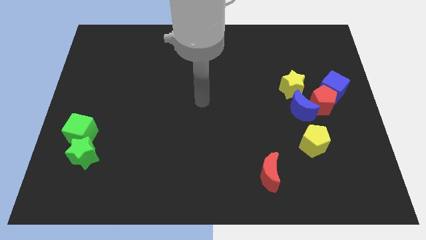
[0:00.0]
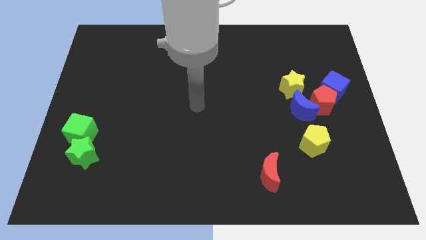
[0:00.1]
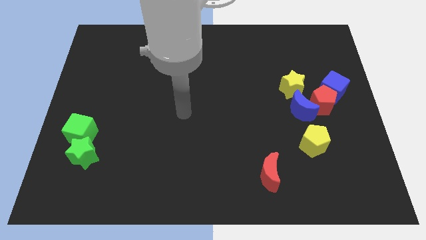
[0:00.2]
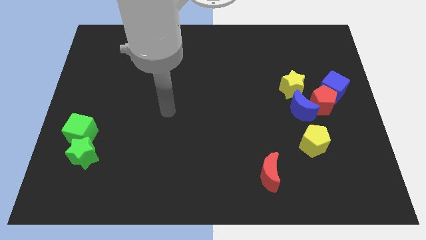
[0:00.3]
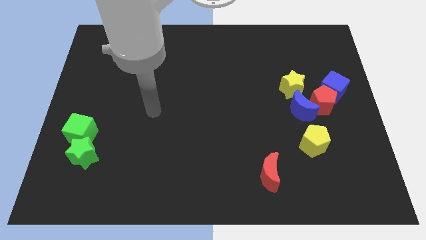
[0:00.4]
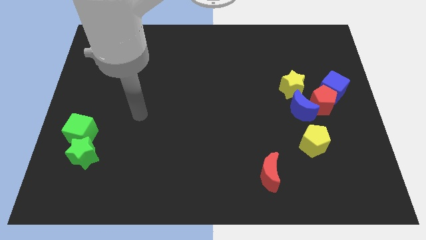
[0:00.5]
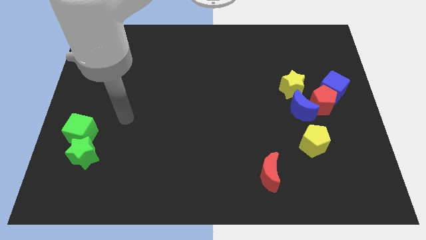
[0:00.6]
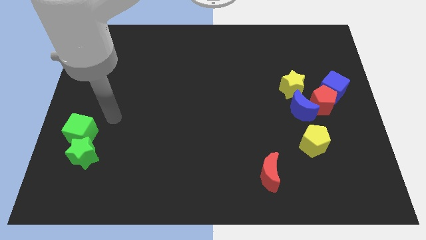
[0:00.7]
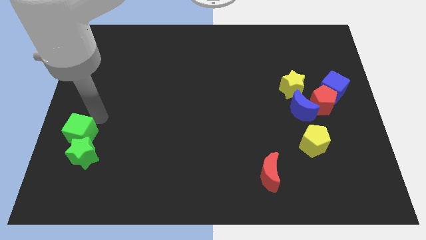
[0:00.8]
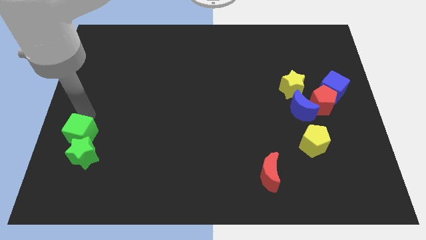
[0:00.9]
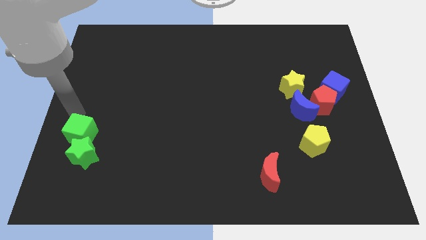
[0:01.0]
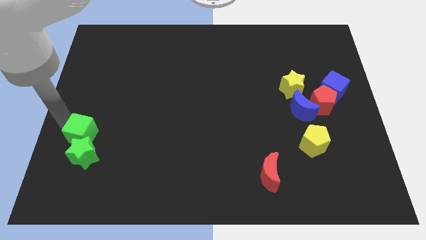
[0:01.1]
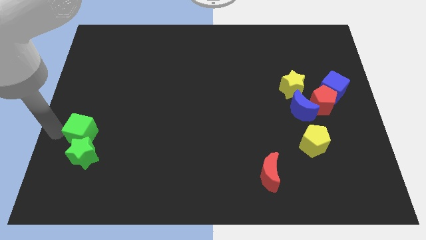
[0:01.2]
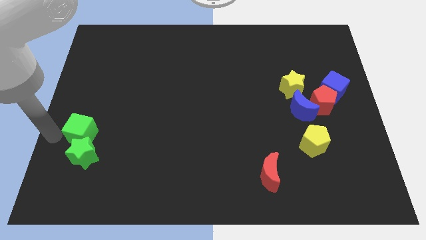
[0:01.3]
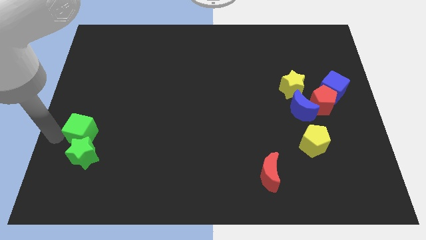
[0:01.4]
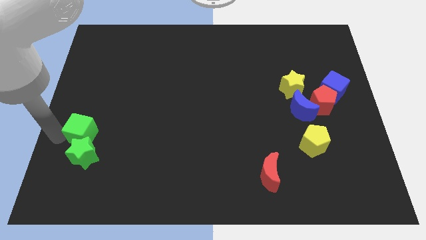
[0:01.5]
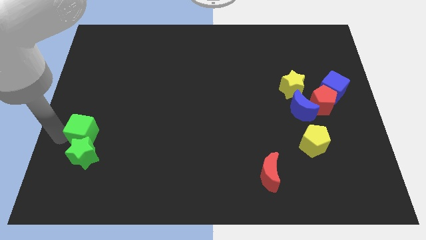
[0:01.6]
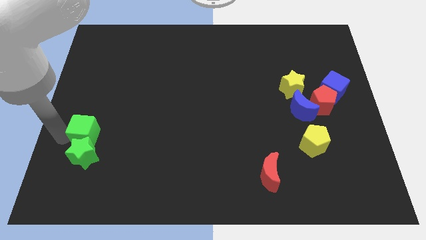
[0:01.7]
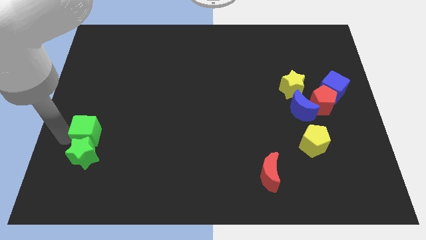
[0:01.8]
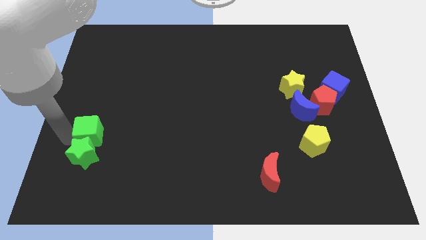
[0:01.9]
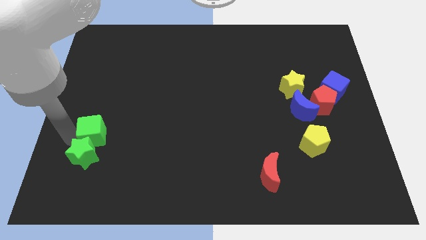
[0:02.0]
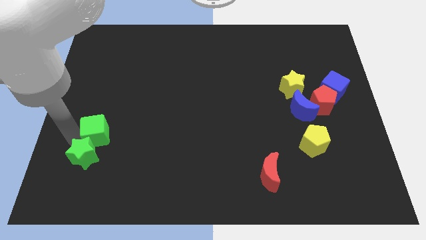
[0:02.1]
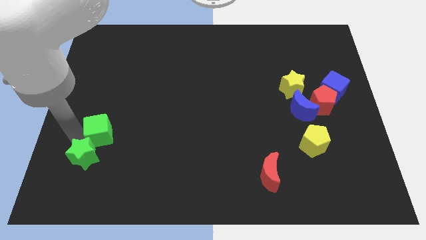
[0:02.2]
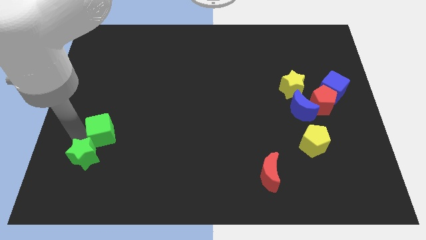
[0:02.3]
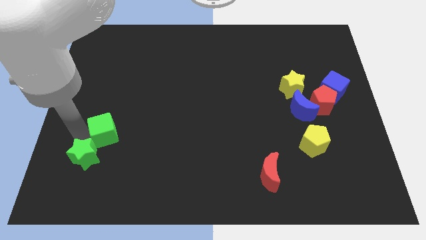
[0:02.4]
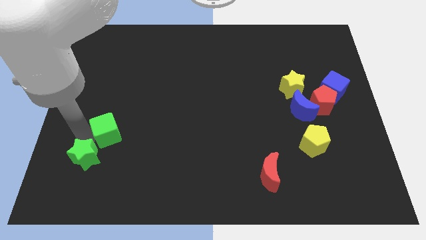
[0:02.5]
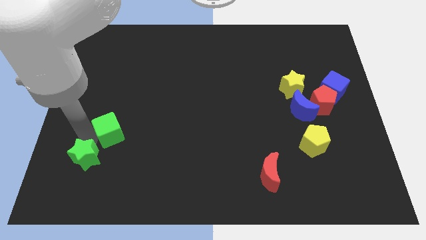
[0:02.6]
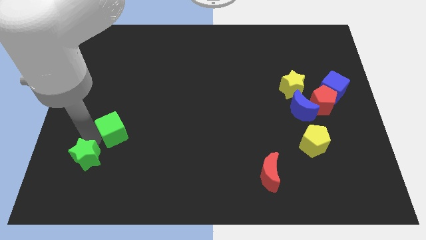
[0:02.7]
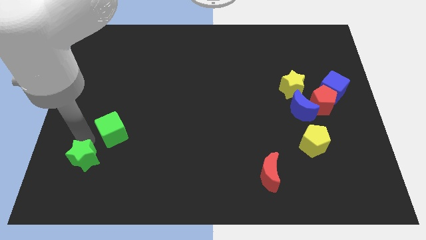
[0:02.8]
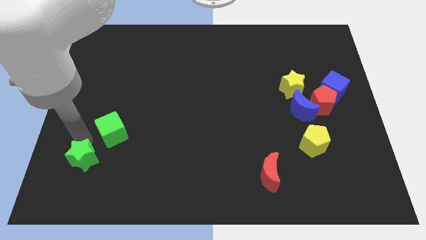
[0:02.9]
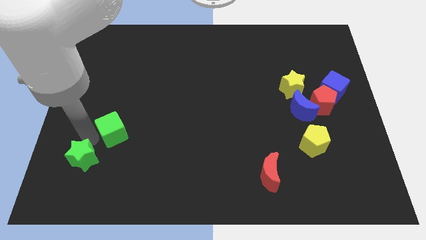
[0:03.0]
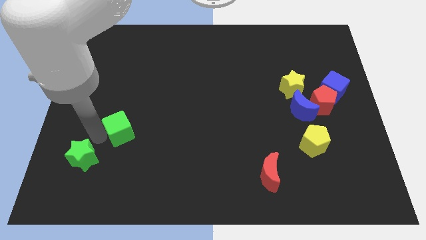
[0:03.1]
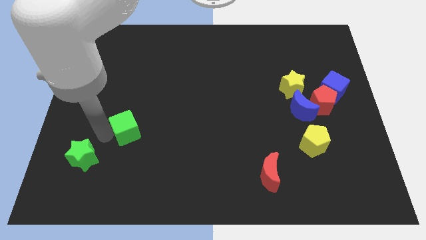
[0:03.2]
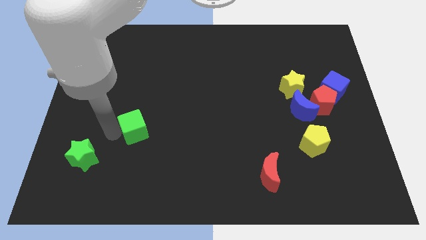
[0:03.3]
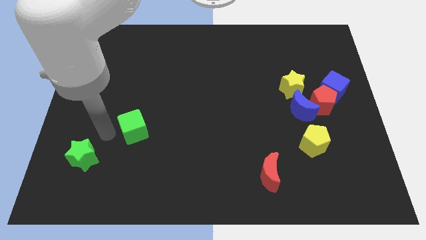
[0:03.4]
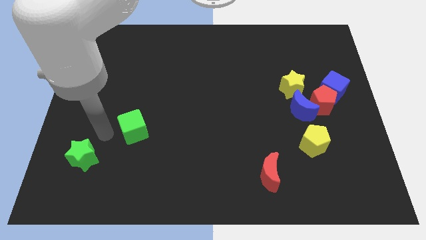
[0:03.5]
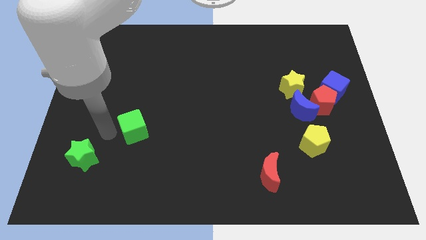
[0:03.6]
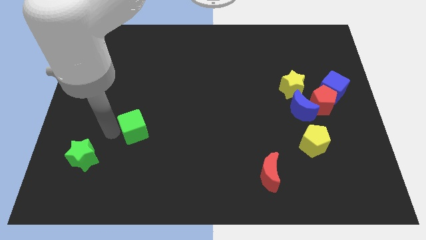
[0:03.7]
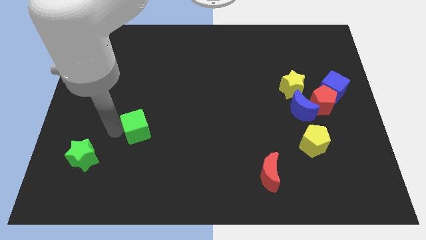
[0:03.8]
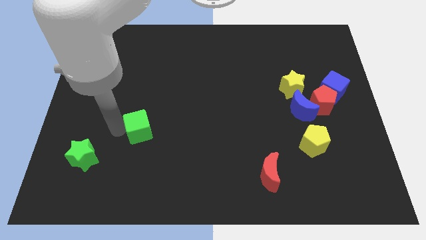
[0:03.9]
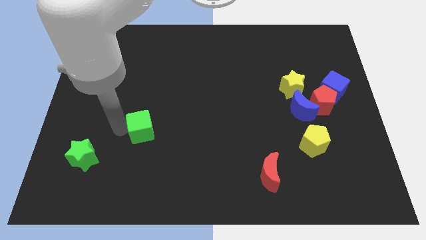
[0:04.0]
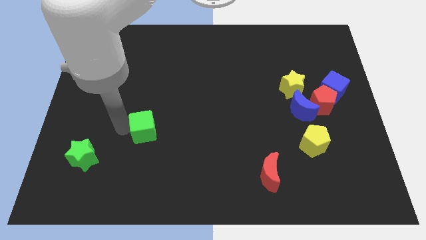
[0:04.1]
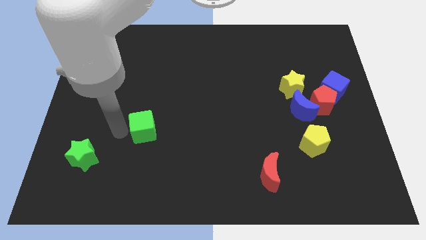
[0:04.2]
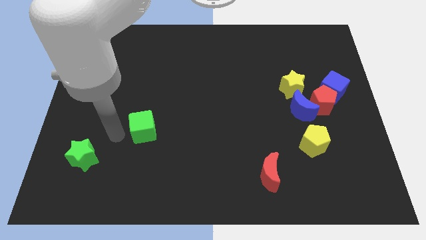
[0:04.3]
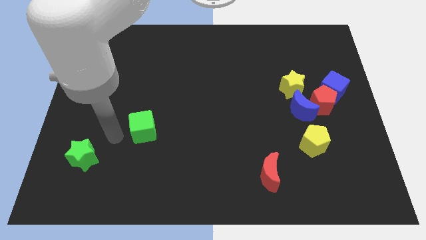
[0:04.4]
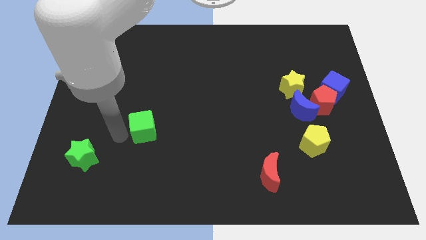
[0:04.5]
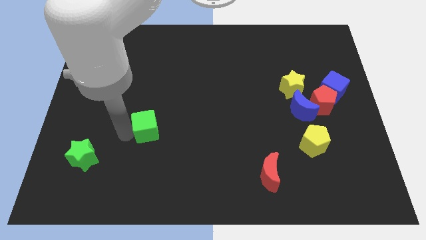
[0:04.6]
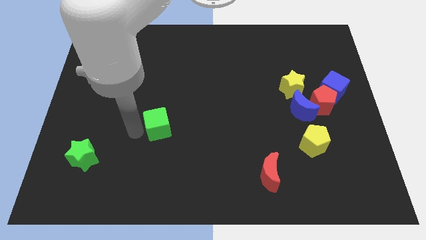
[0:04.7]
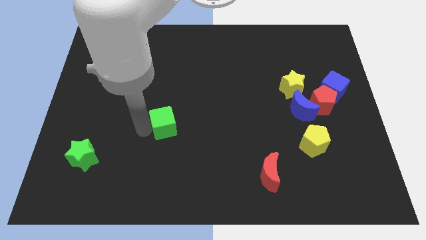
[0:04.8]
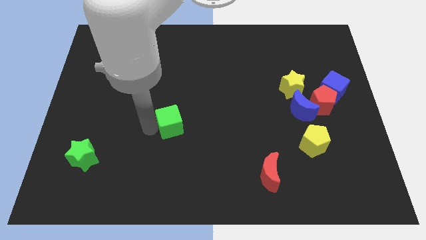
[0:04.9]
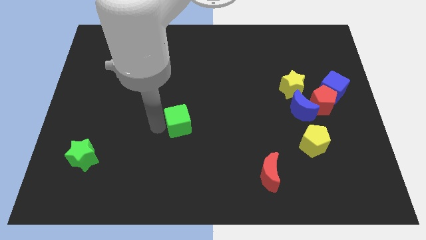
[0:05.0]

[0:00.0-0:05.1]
move the green cube to the right

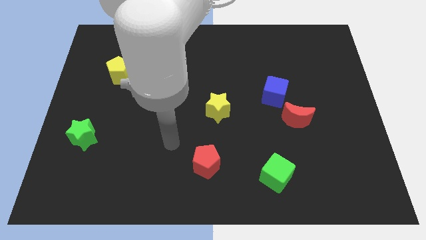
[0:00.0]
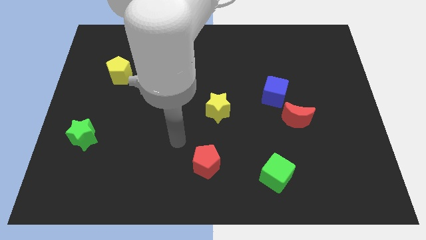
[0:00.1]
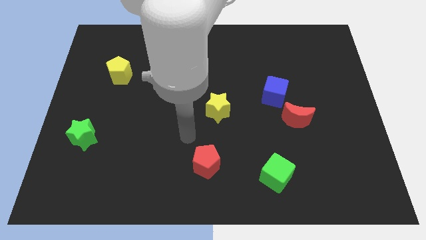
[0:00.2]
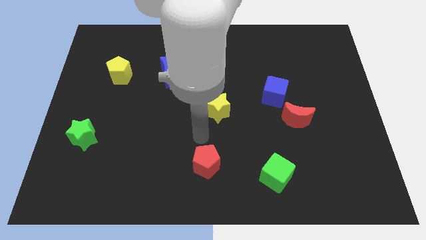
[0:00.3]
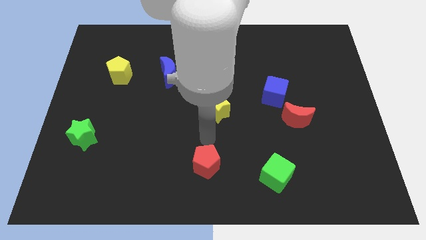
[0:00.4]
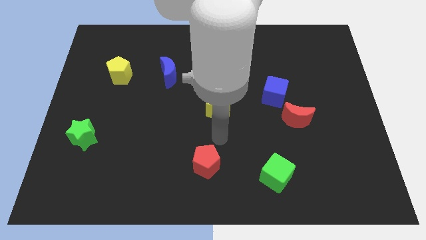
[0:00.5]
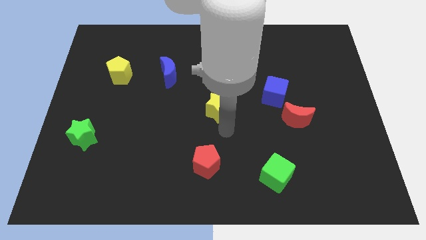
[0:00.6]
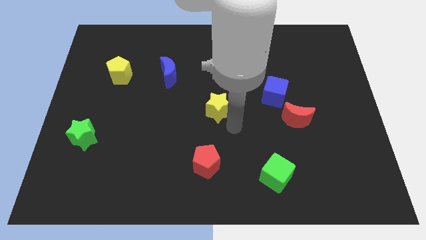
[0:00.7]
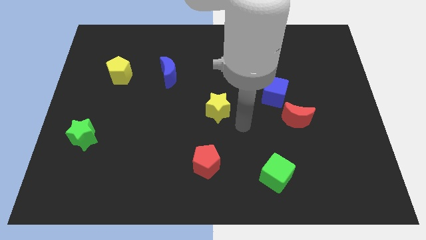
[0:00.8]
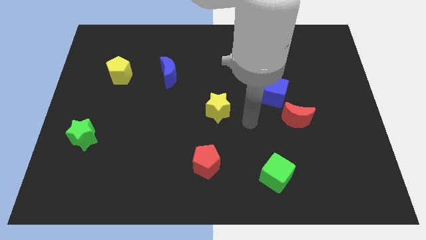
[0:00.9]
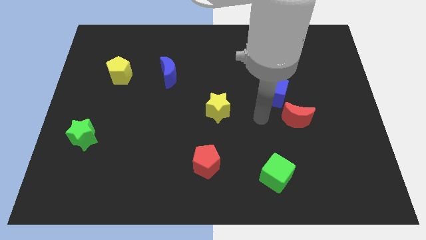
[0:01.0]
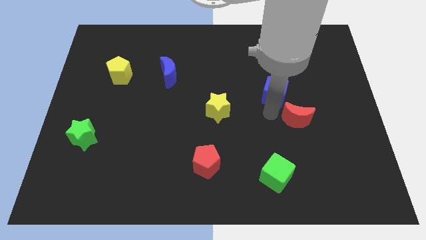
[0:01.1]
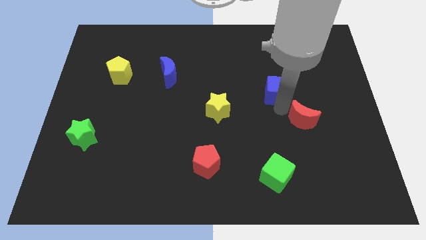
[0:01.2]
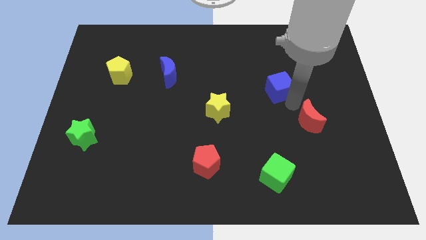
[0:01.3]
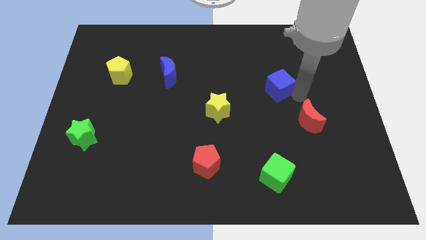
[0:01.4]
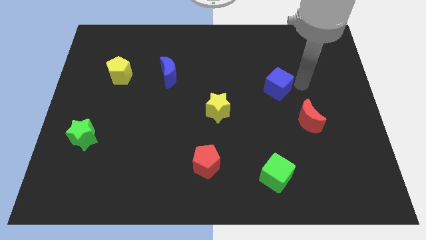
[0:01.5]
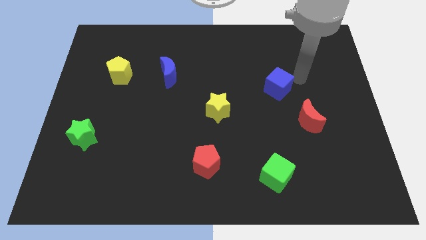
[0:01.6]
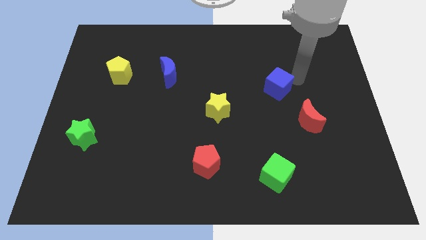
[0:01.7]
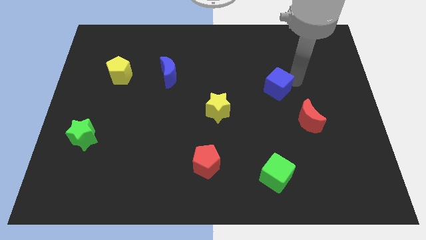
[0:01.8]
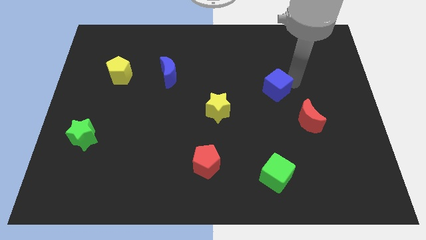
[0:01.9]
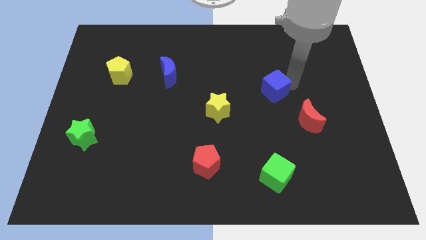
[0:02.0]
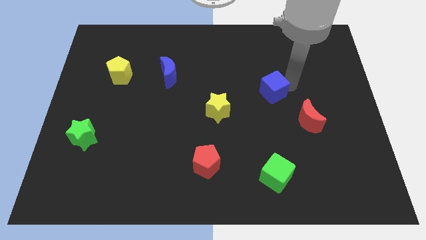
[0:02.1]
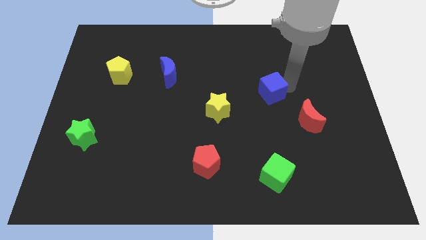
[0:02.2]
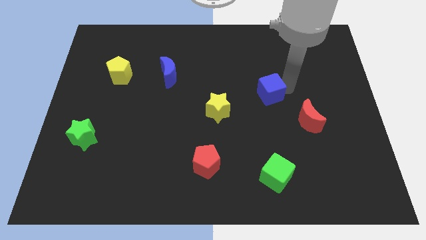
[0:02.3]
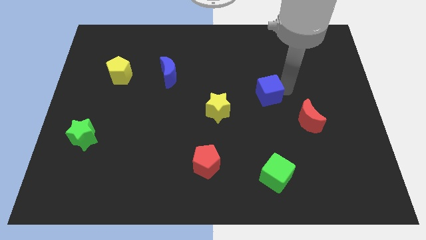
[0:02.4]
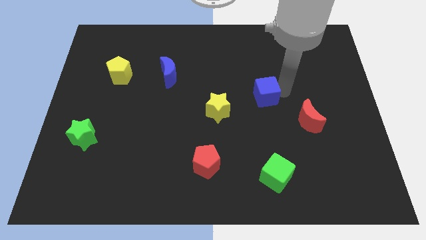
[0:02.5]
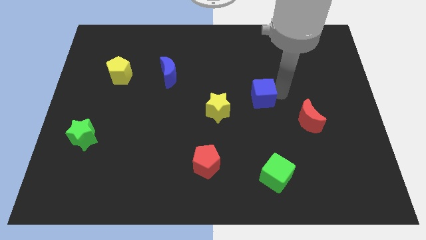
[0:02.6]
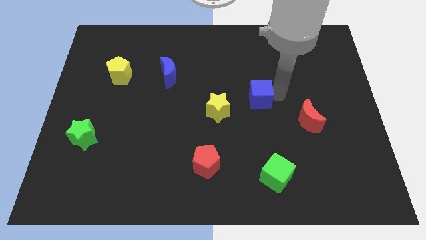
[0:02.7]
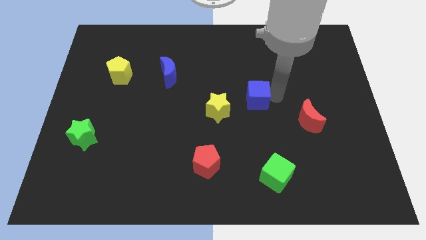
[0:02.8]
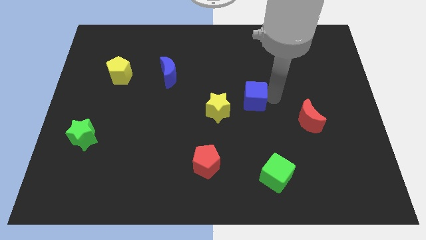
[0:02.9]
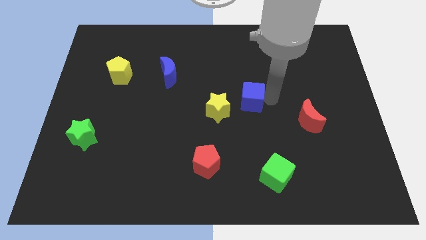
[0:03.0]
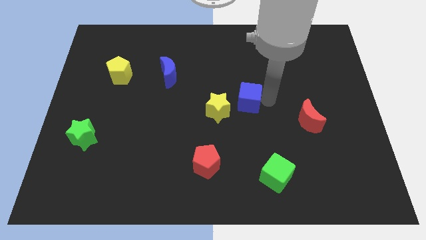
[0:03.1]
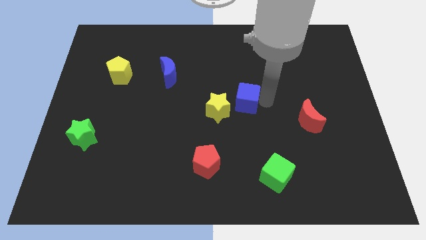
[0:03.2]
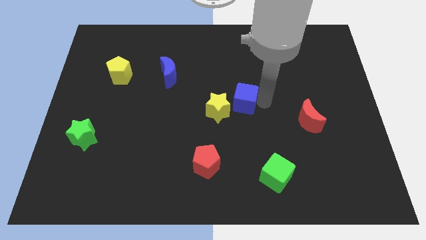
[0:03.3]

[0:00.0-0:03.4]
move the blue cube to the left slightly
